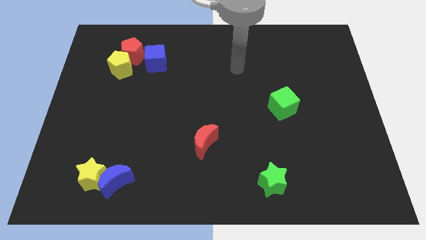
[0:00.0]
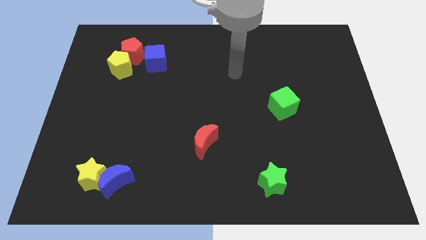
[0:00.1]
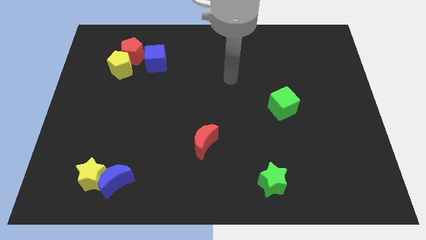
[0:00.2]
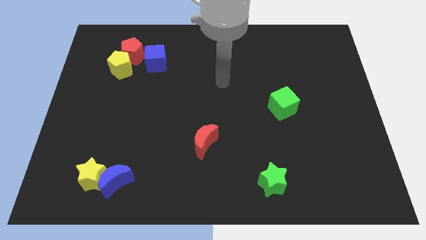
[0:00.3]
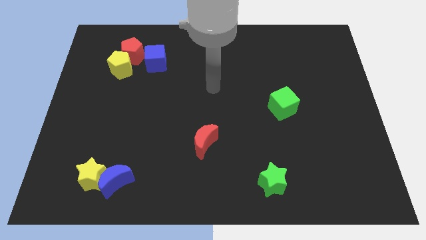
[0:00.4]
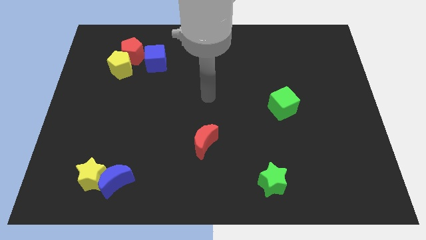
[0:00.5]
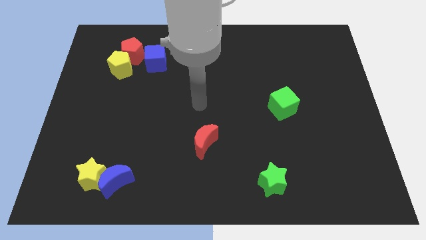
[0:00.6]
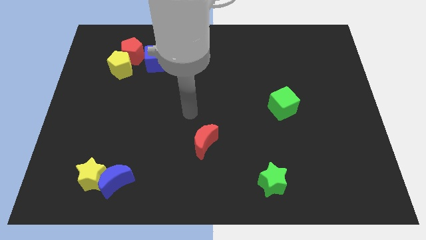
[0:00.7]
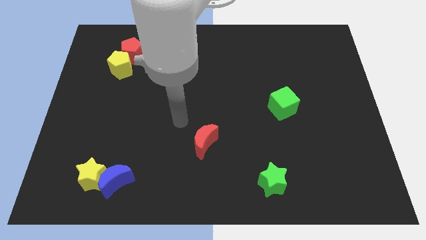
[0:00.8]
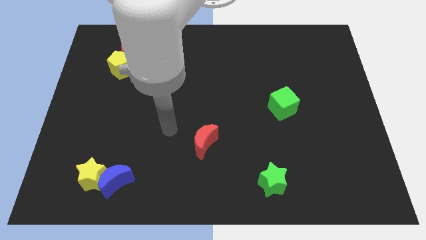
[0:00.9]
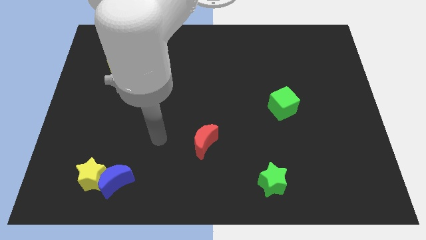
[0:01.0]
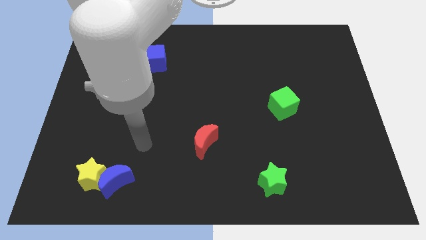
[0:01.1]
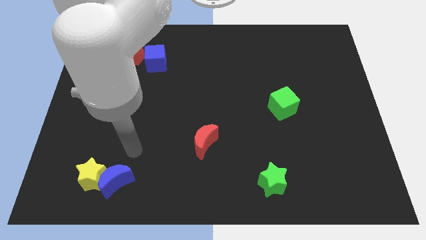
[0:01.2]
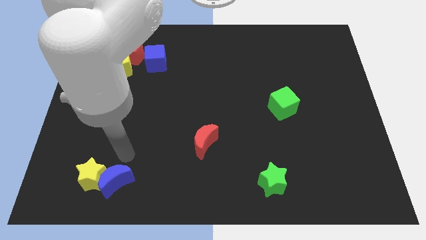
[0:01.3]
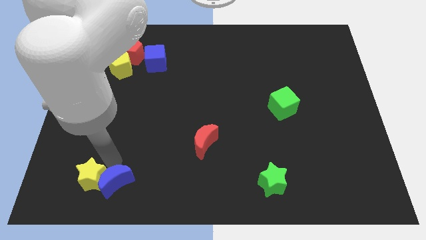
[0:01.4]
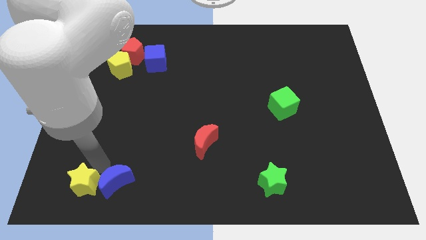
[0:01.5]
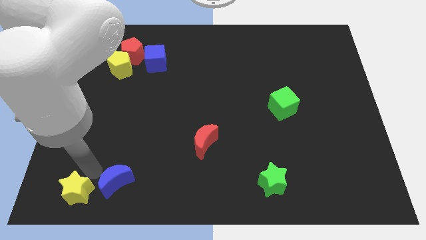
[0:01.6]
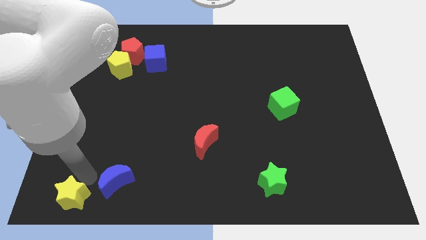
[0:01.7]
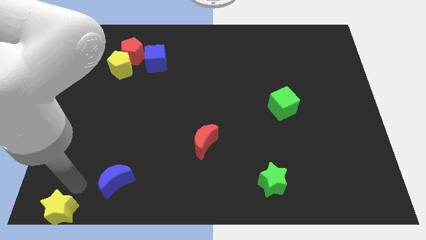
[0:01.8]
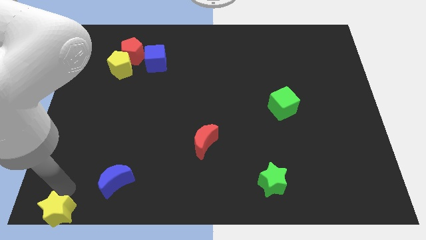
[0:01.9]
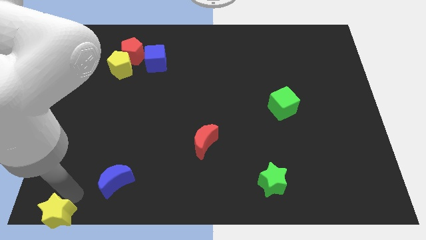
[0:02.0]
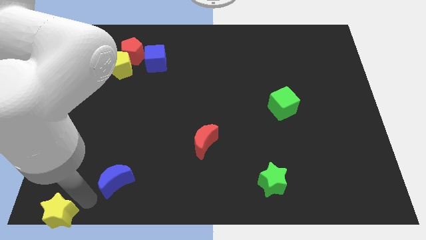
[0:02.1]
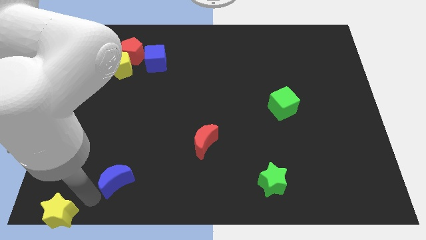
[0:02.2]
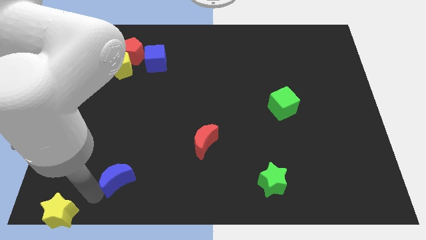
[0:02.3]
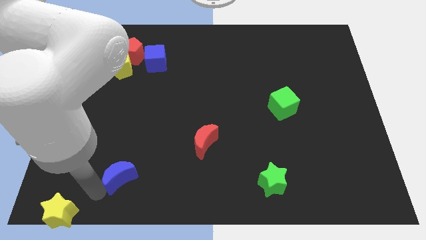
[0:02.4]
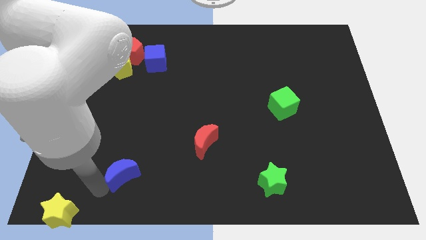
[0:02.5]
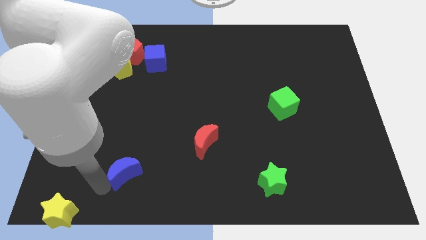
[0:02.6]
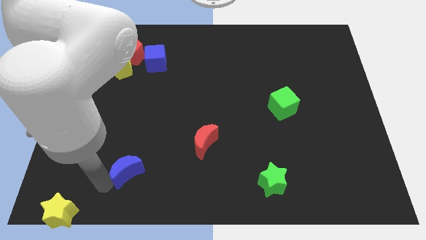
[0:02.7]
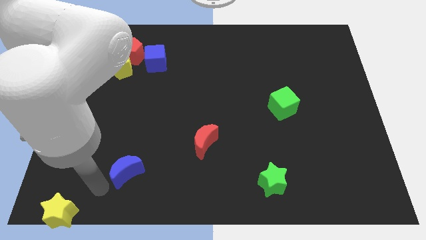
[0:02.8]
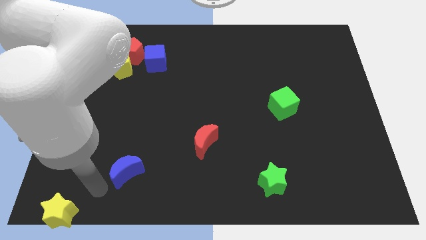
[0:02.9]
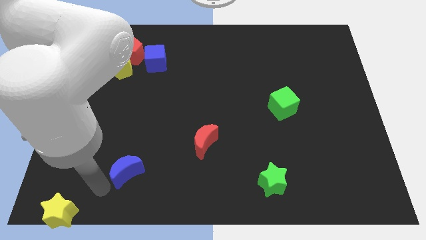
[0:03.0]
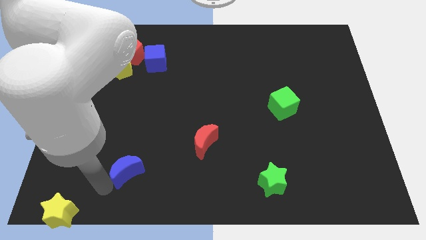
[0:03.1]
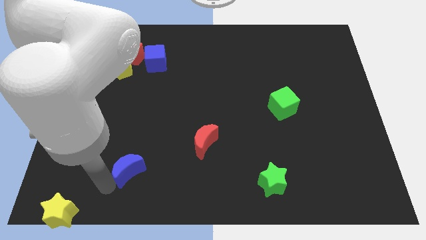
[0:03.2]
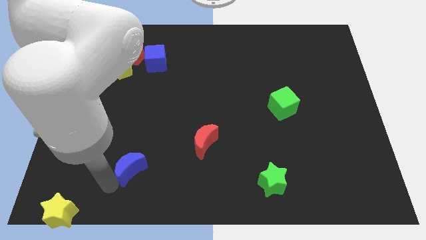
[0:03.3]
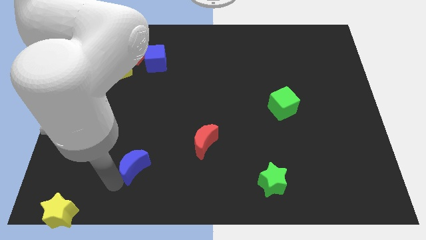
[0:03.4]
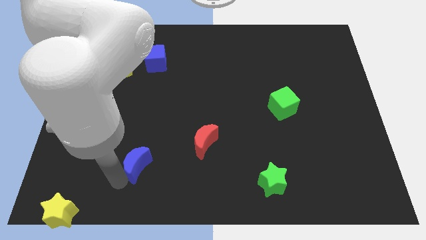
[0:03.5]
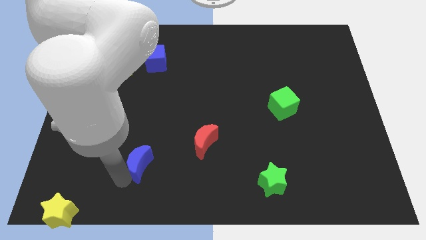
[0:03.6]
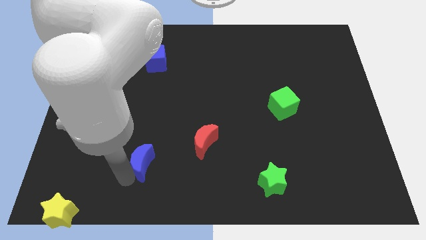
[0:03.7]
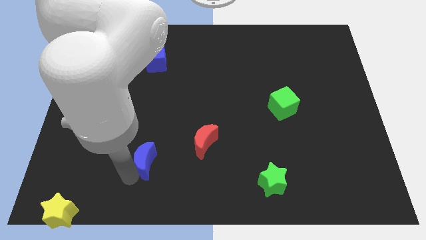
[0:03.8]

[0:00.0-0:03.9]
move the blue moon slightly diagonally up and to the right

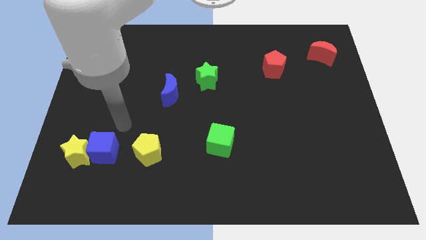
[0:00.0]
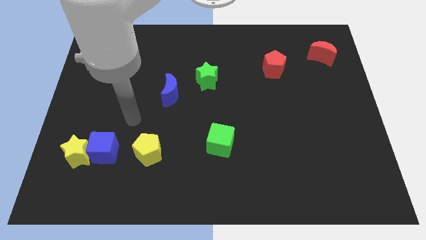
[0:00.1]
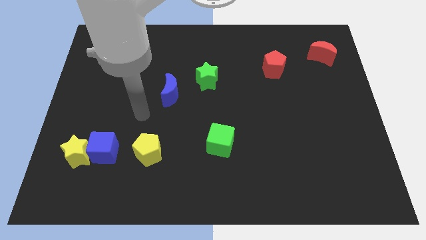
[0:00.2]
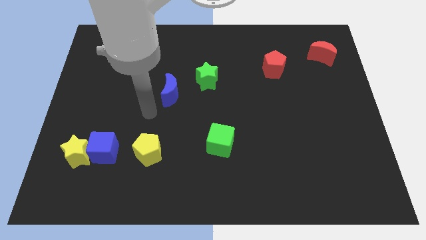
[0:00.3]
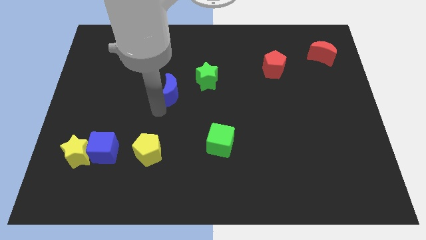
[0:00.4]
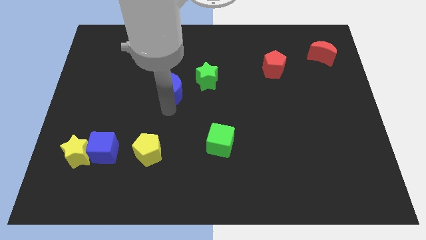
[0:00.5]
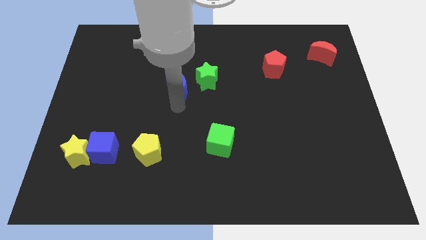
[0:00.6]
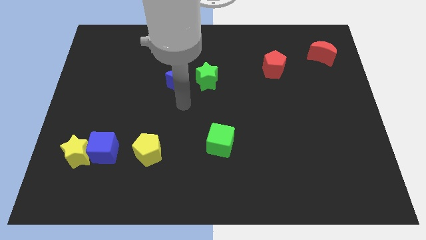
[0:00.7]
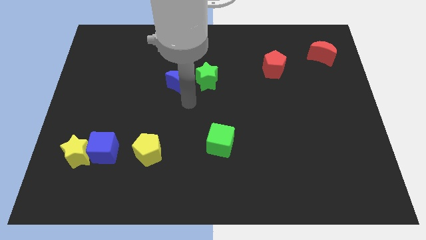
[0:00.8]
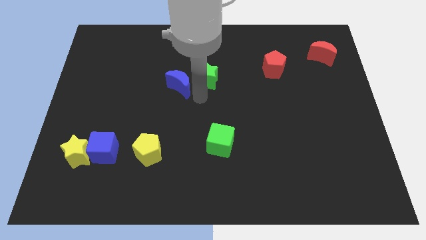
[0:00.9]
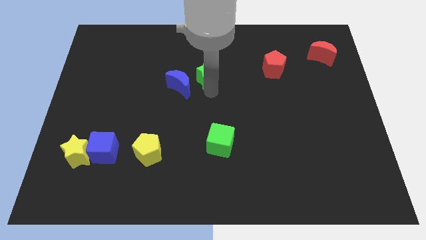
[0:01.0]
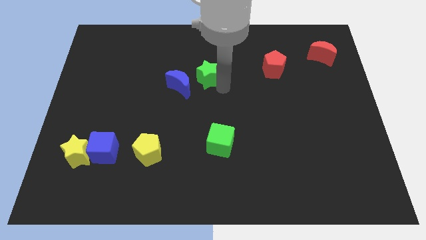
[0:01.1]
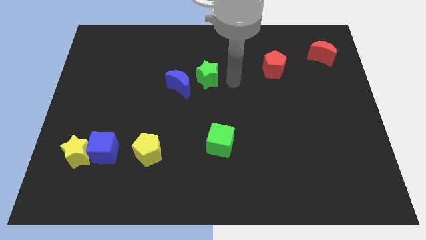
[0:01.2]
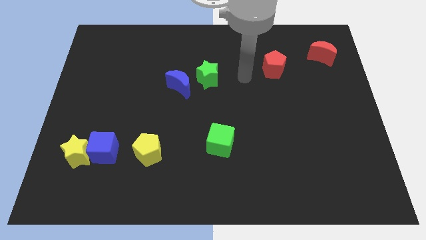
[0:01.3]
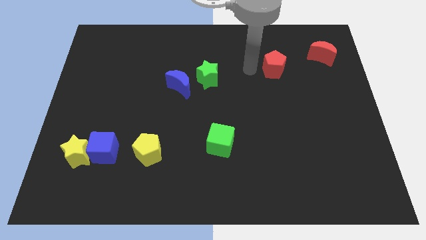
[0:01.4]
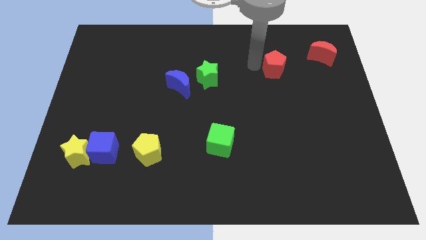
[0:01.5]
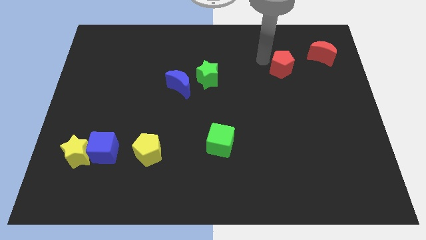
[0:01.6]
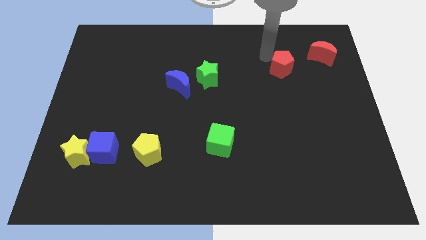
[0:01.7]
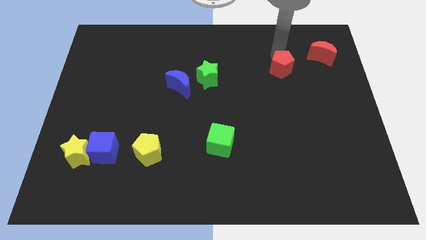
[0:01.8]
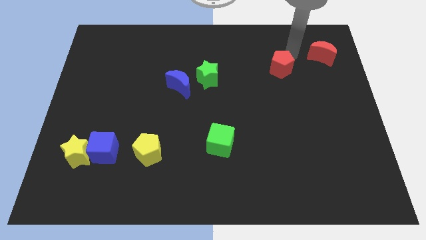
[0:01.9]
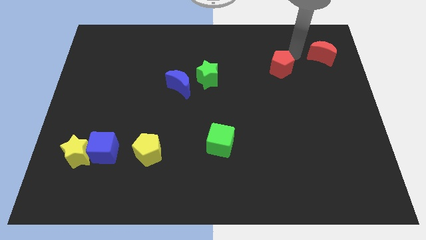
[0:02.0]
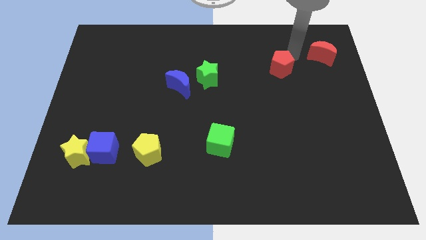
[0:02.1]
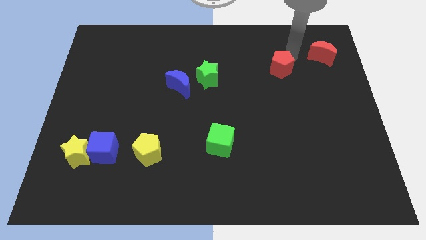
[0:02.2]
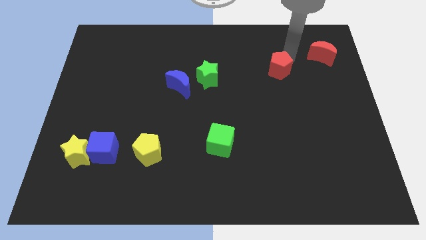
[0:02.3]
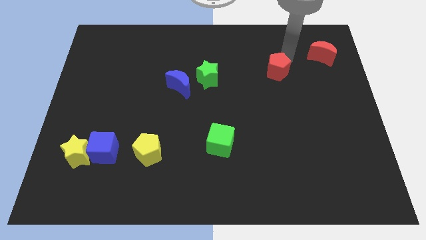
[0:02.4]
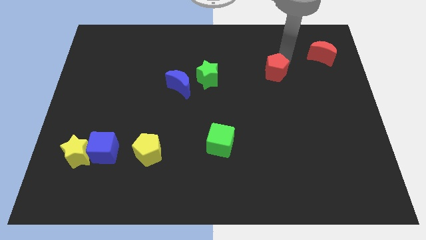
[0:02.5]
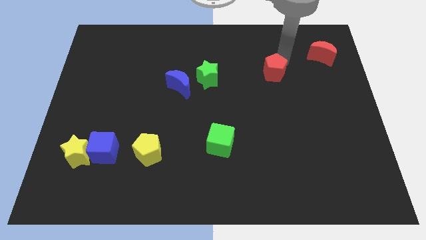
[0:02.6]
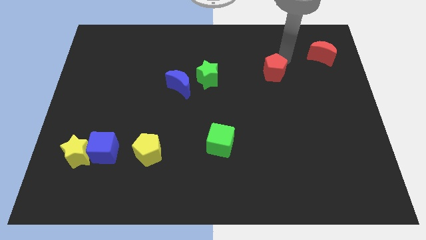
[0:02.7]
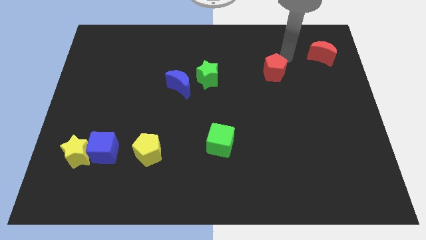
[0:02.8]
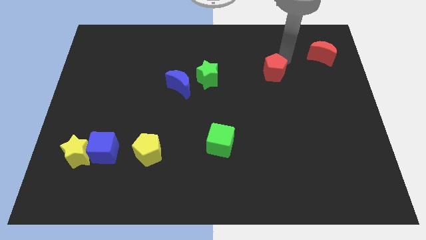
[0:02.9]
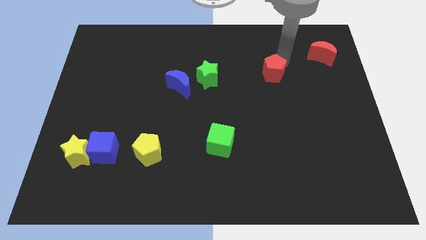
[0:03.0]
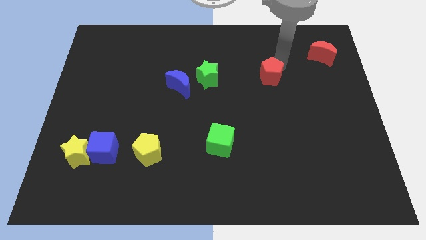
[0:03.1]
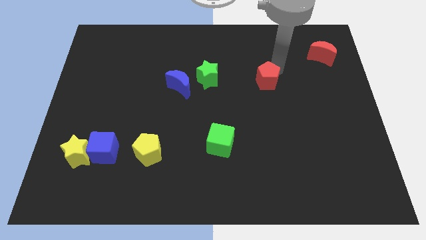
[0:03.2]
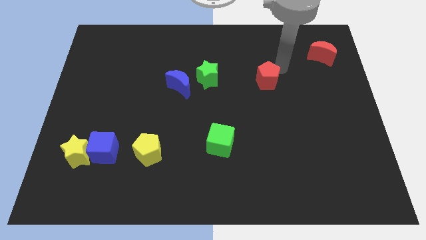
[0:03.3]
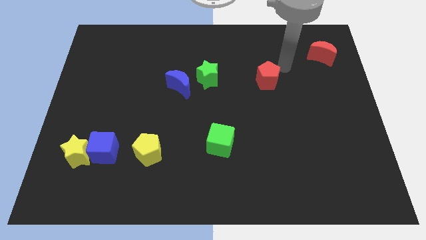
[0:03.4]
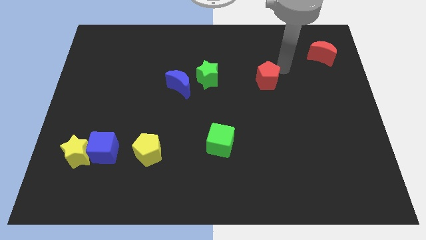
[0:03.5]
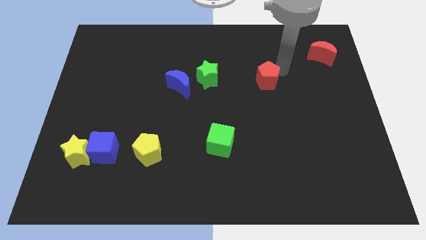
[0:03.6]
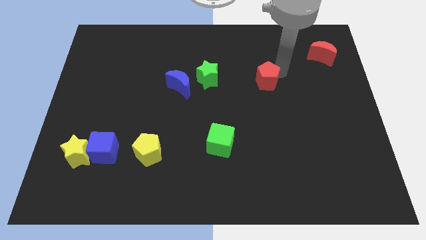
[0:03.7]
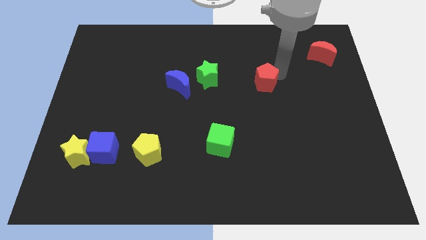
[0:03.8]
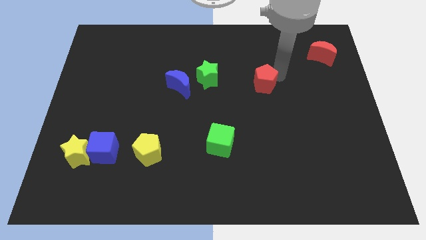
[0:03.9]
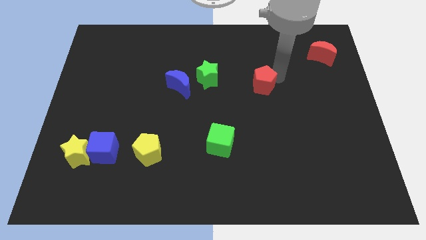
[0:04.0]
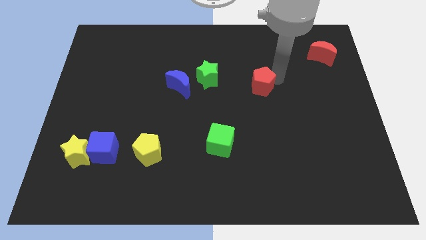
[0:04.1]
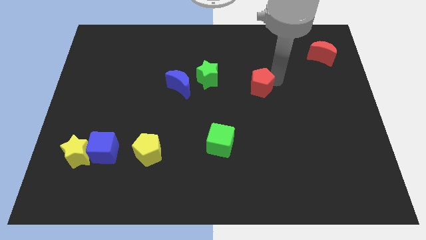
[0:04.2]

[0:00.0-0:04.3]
push the red pentagon a little bit down and to the left
